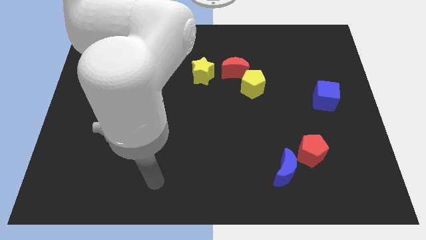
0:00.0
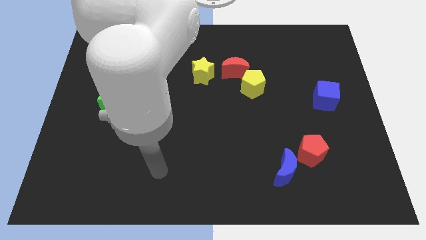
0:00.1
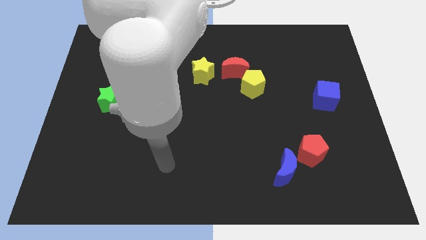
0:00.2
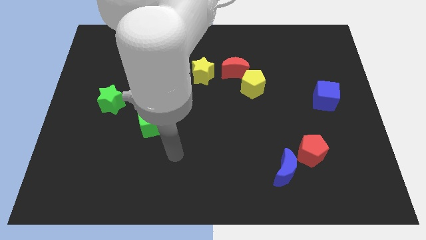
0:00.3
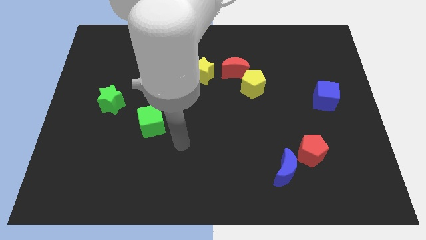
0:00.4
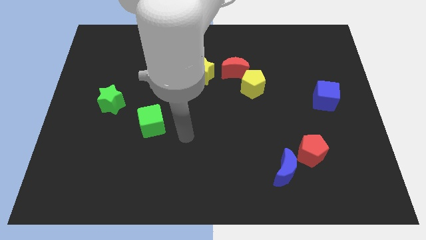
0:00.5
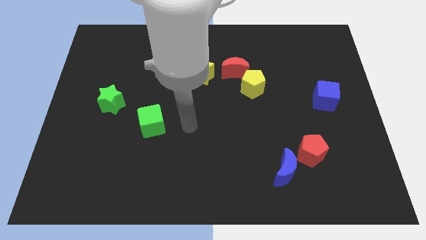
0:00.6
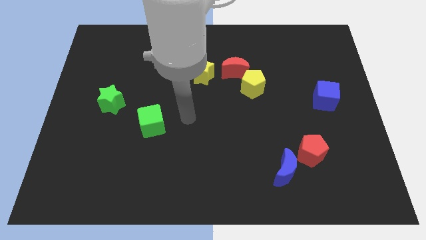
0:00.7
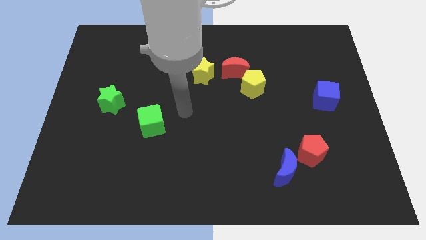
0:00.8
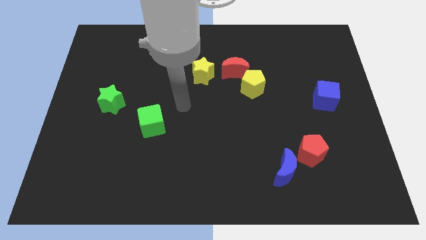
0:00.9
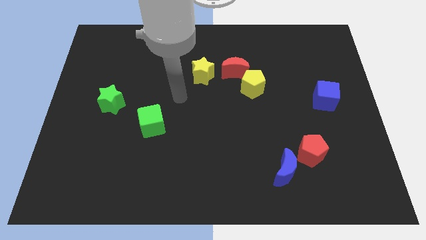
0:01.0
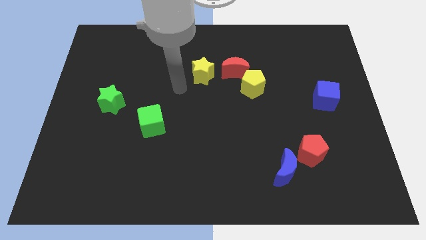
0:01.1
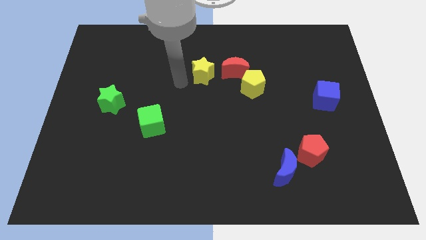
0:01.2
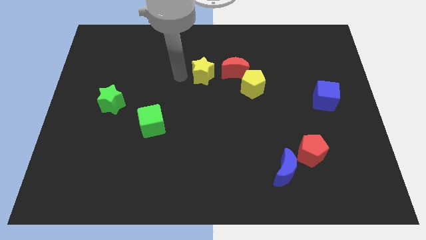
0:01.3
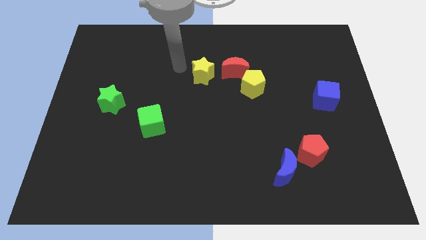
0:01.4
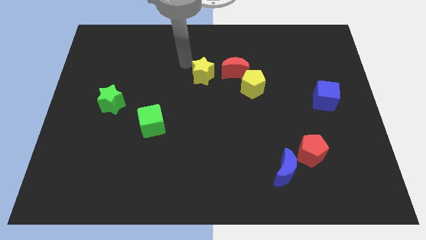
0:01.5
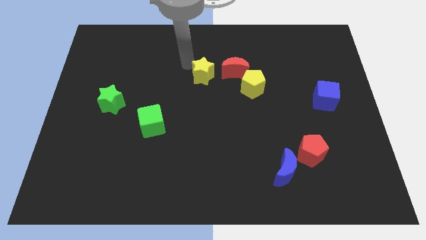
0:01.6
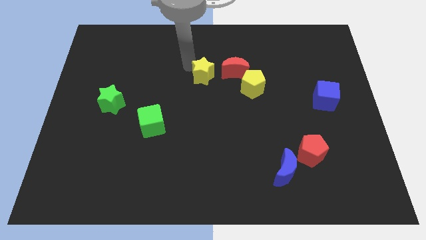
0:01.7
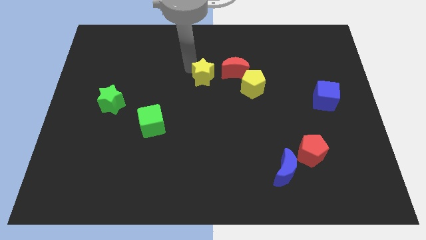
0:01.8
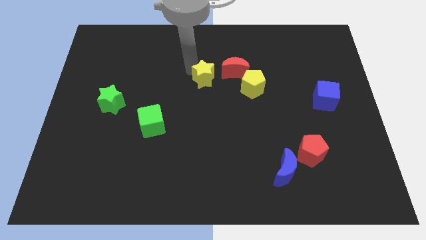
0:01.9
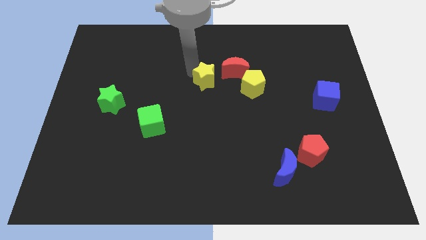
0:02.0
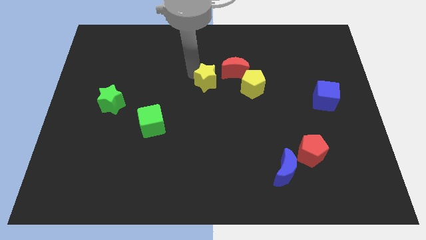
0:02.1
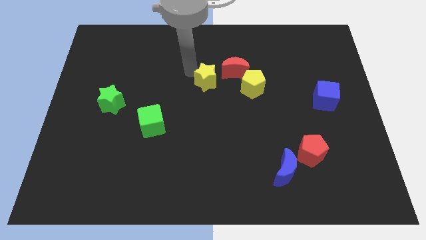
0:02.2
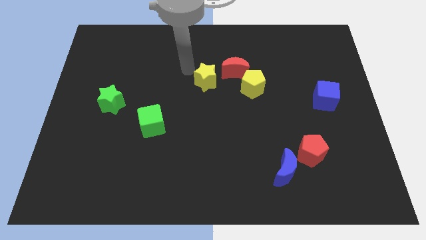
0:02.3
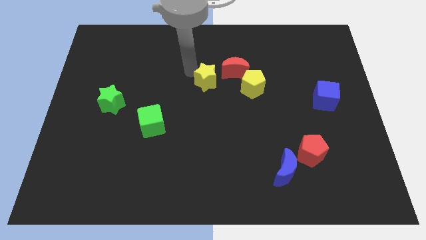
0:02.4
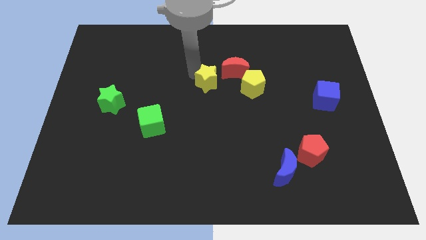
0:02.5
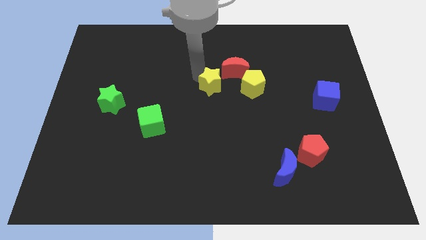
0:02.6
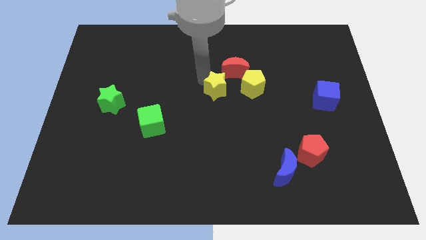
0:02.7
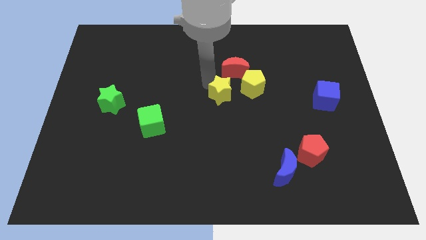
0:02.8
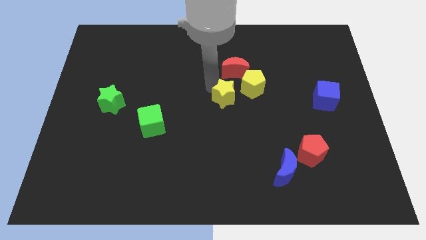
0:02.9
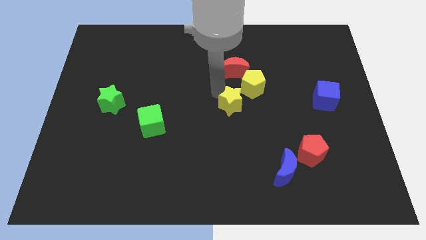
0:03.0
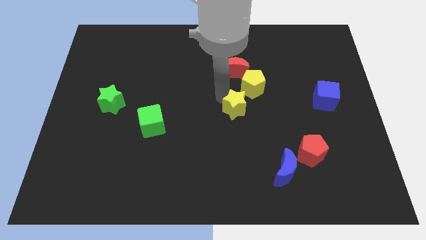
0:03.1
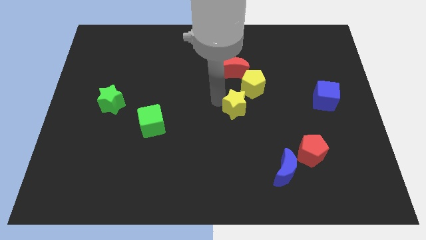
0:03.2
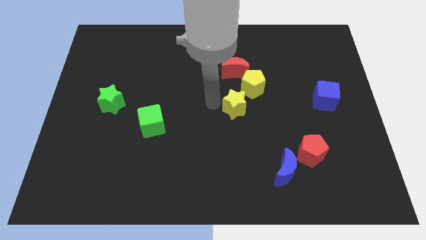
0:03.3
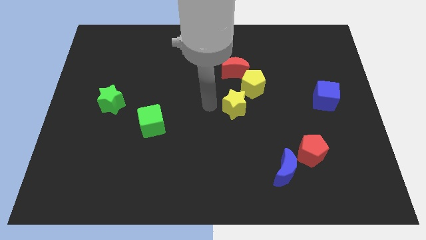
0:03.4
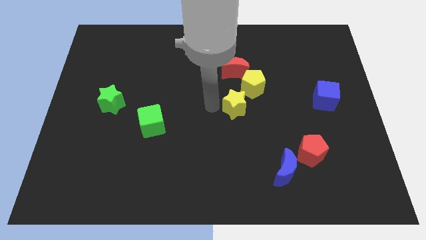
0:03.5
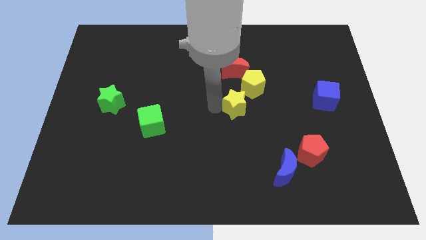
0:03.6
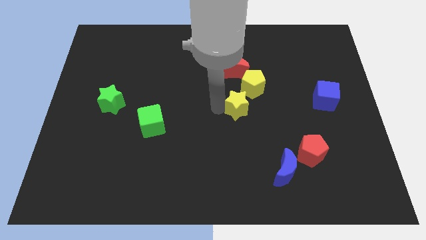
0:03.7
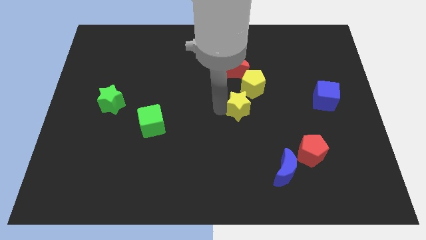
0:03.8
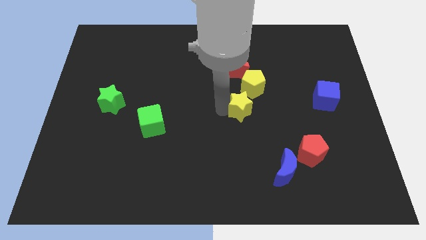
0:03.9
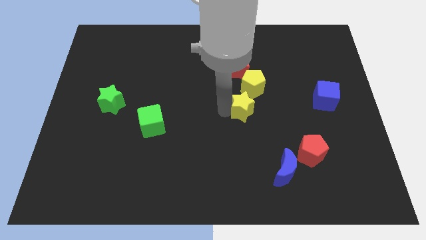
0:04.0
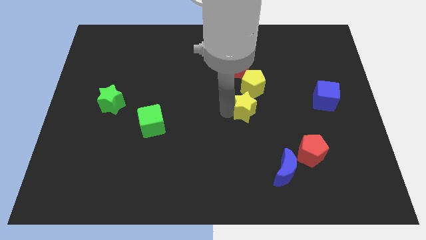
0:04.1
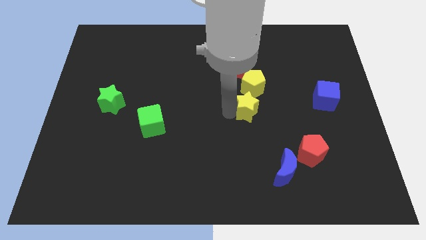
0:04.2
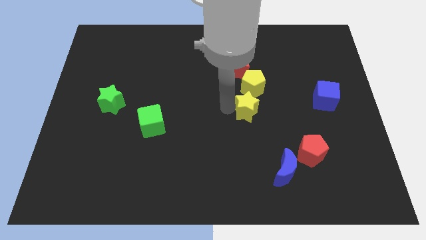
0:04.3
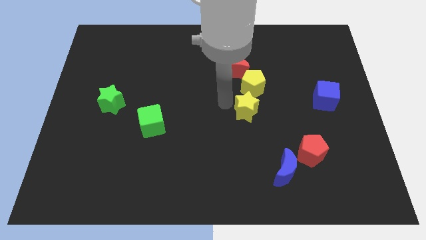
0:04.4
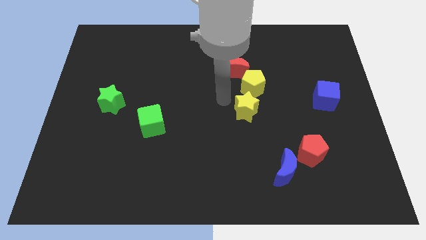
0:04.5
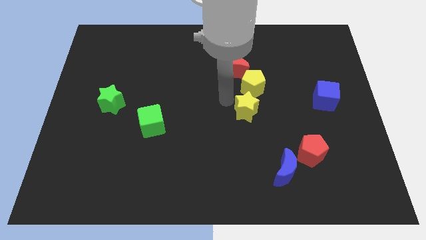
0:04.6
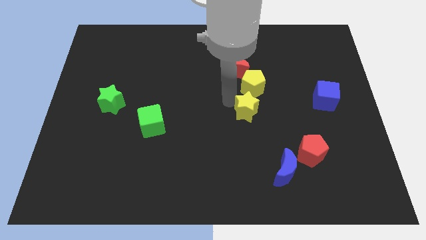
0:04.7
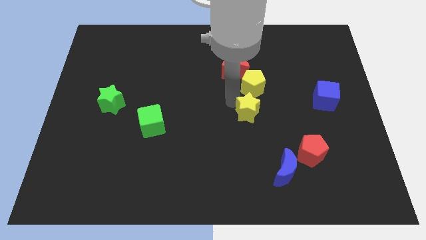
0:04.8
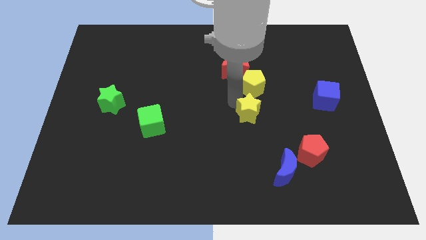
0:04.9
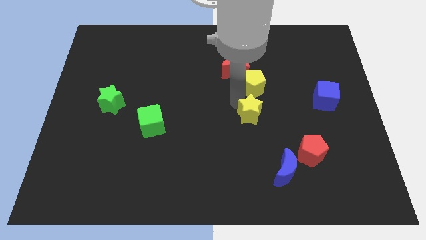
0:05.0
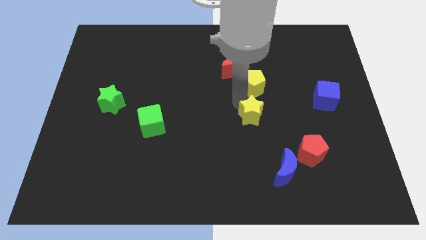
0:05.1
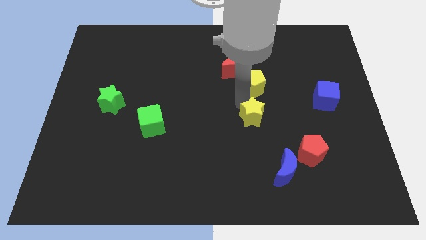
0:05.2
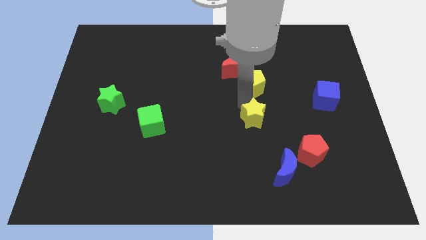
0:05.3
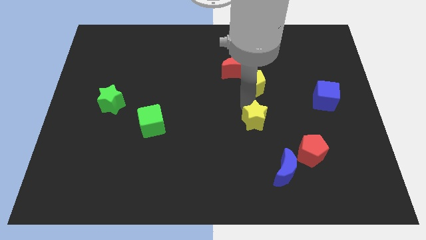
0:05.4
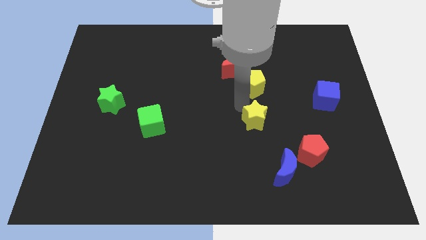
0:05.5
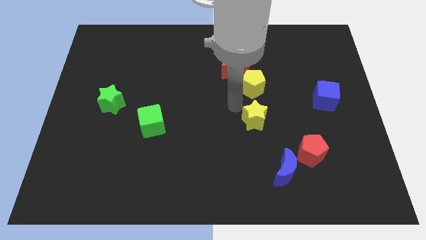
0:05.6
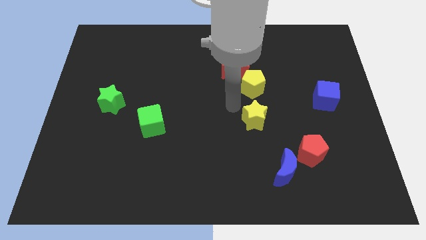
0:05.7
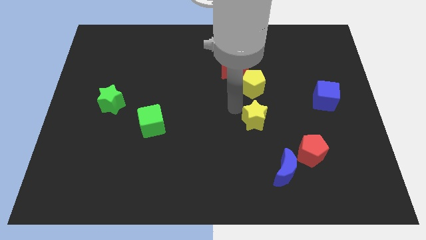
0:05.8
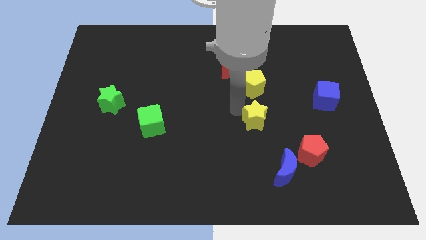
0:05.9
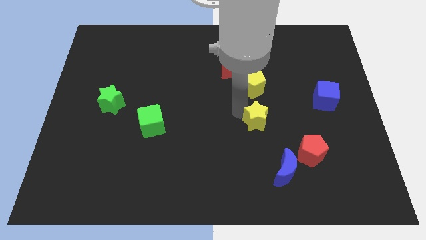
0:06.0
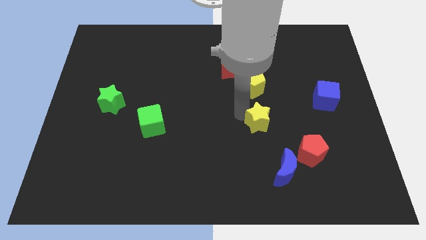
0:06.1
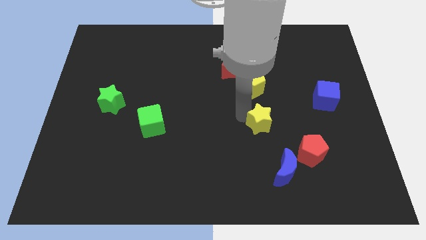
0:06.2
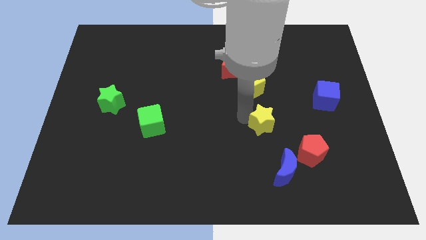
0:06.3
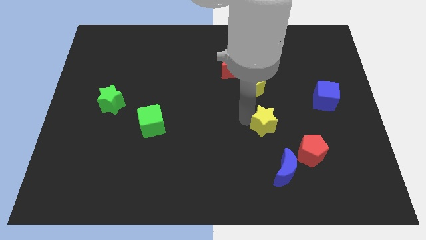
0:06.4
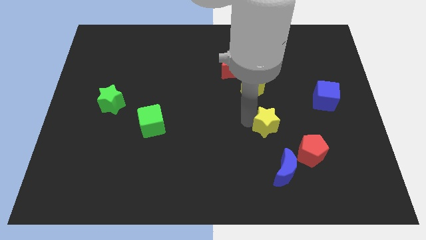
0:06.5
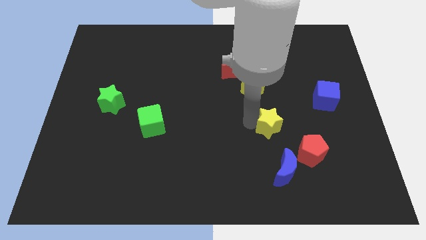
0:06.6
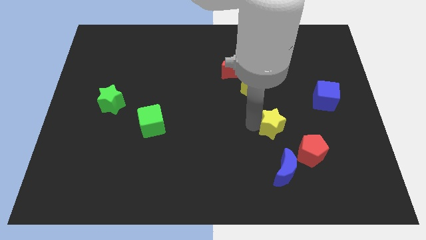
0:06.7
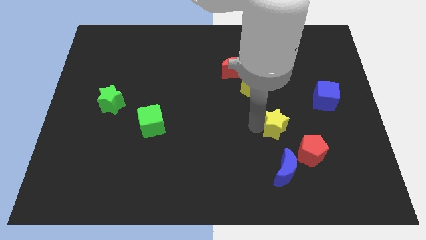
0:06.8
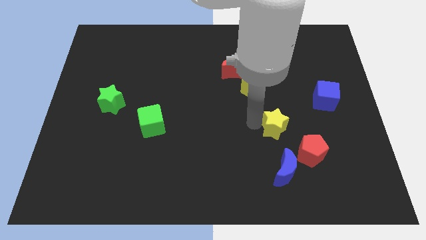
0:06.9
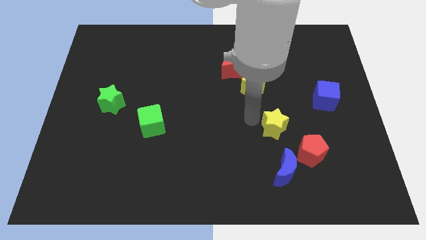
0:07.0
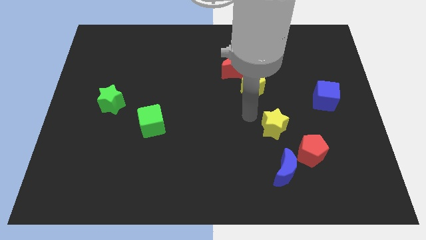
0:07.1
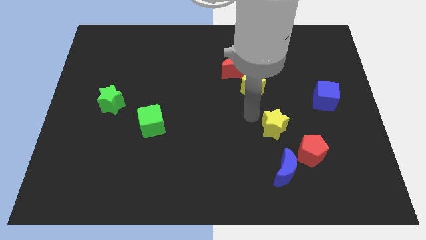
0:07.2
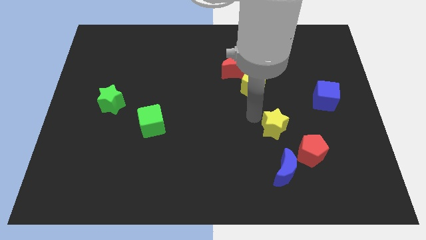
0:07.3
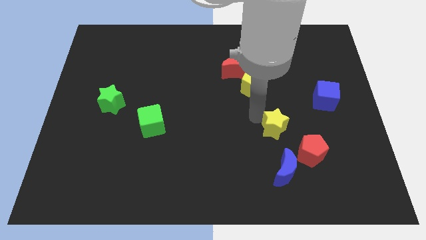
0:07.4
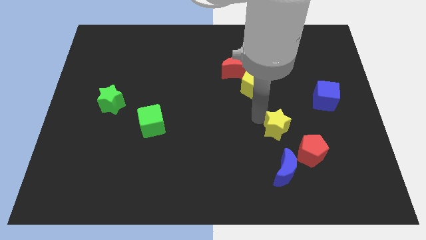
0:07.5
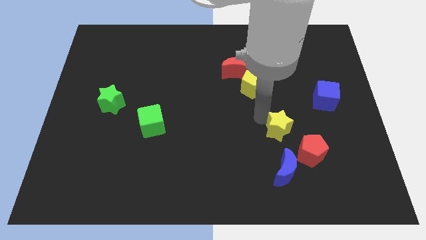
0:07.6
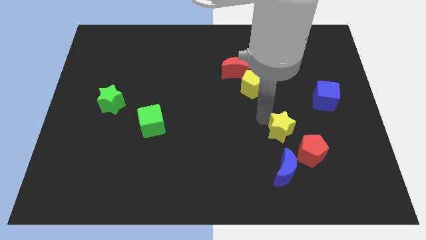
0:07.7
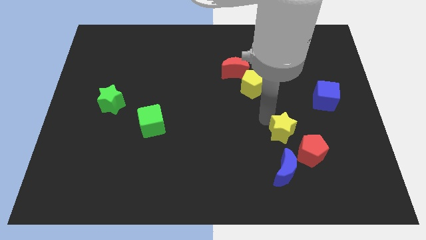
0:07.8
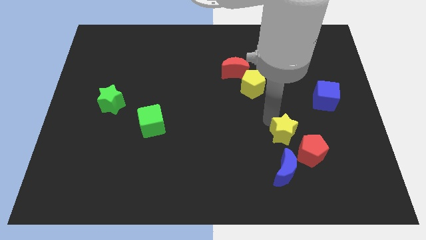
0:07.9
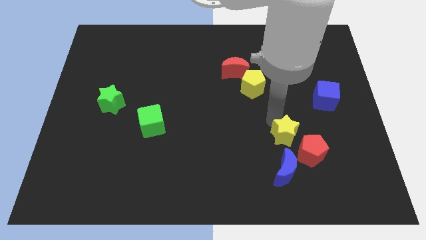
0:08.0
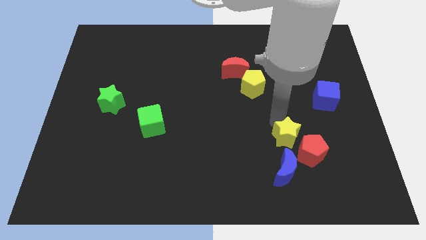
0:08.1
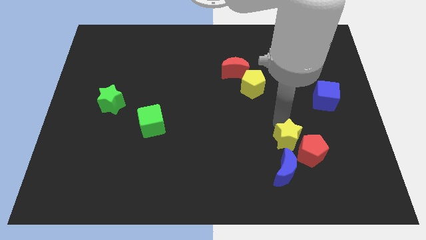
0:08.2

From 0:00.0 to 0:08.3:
put the yellow star towards the red pentagon
